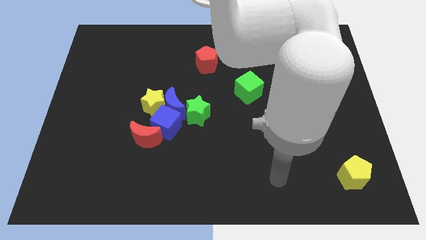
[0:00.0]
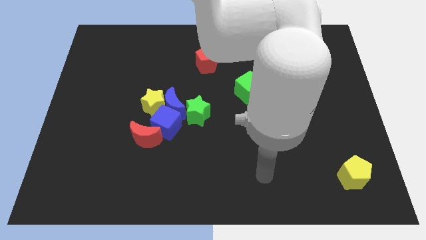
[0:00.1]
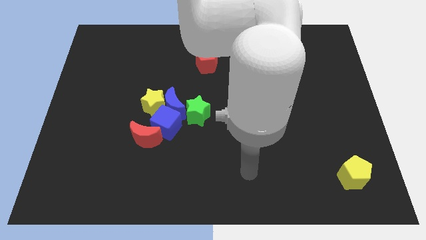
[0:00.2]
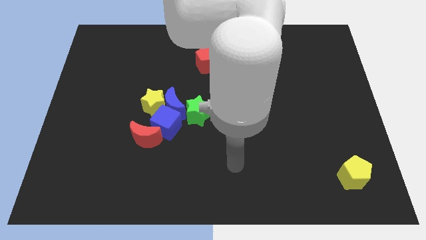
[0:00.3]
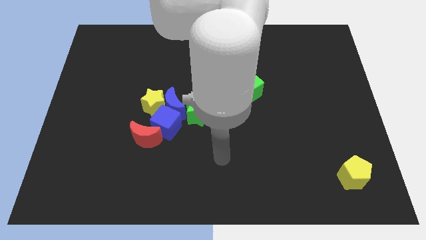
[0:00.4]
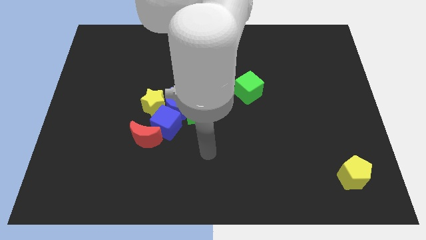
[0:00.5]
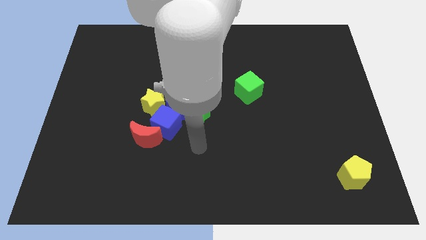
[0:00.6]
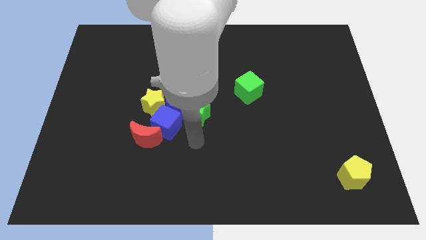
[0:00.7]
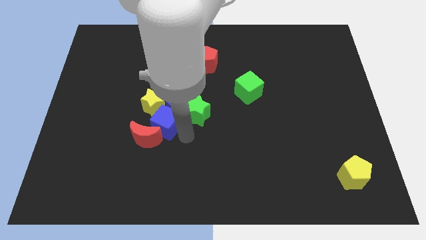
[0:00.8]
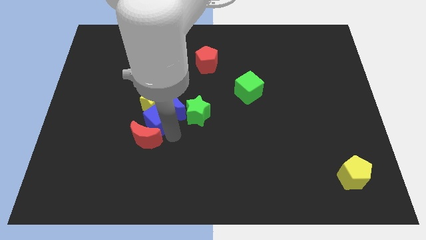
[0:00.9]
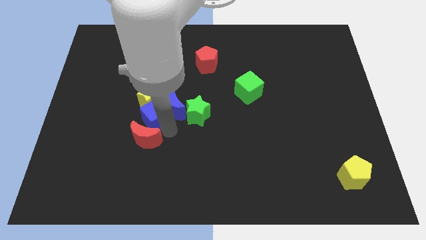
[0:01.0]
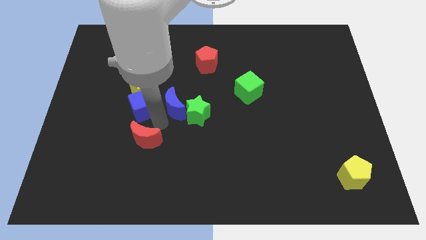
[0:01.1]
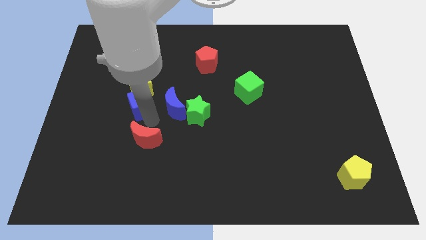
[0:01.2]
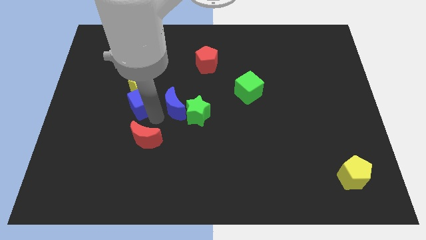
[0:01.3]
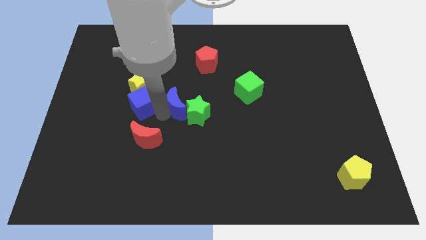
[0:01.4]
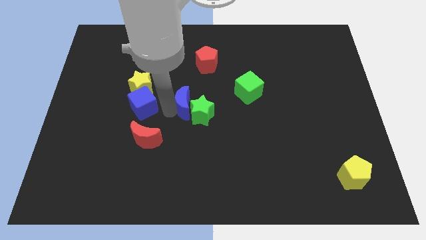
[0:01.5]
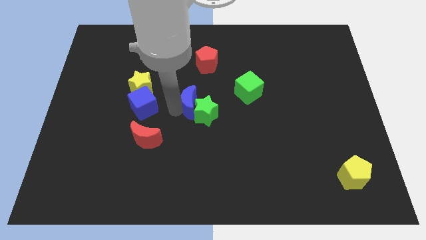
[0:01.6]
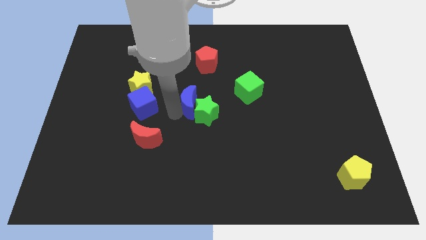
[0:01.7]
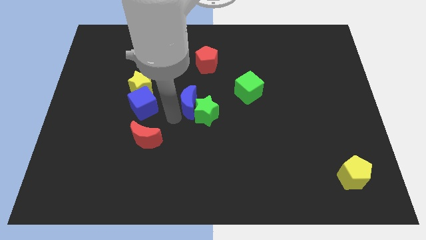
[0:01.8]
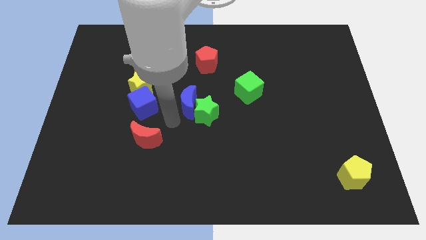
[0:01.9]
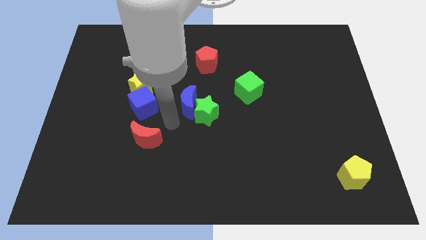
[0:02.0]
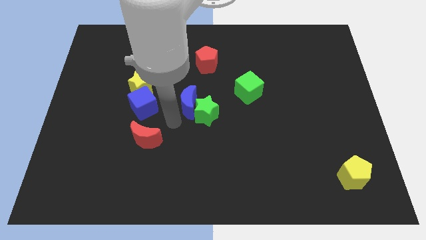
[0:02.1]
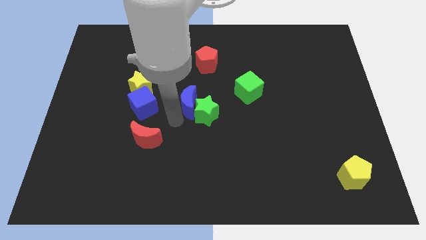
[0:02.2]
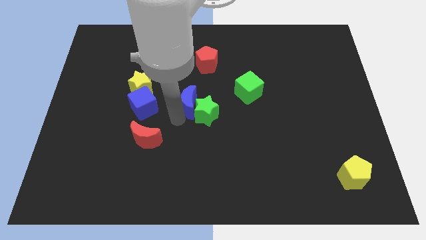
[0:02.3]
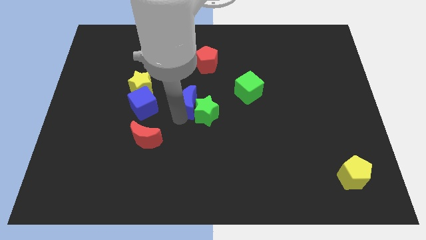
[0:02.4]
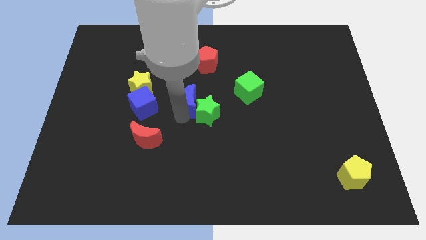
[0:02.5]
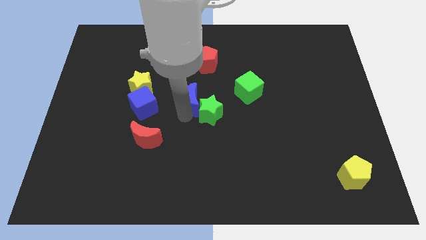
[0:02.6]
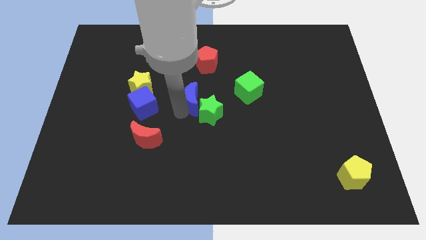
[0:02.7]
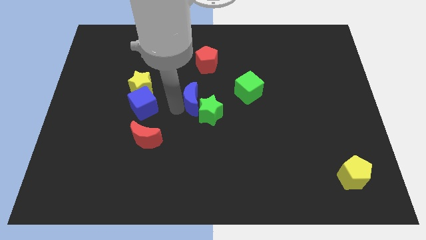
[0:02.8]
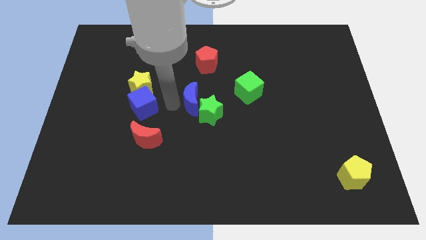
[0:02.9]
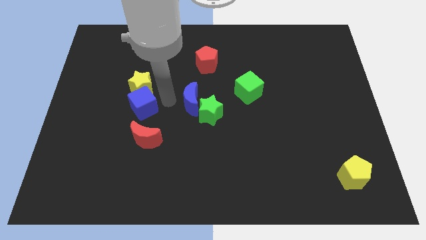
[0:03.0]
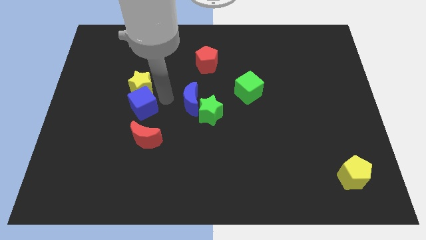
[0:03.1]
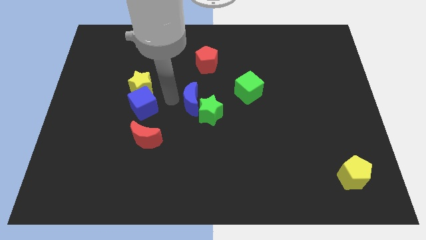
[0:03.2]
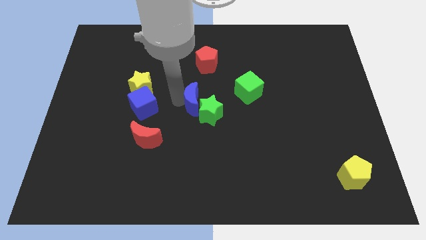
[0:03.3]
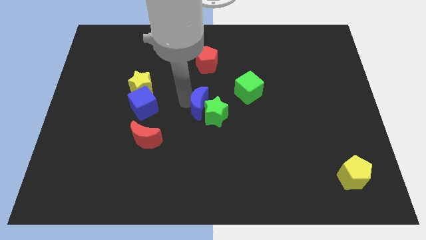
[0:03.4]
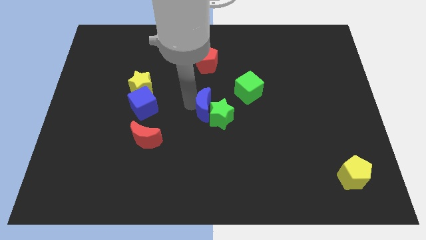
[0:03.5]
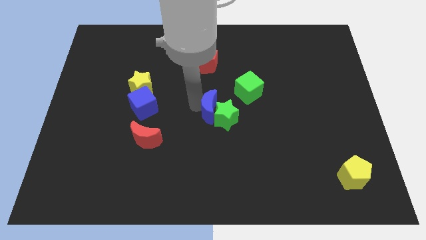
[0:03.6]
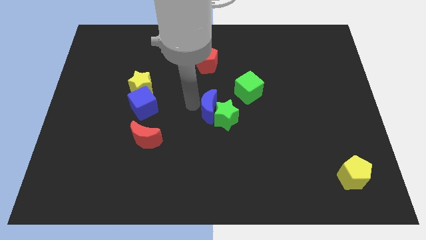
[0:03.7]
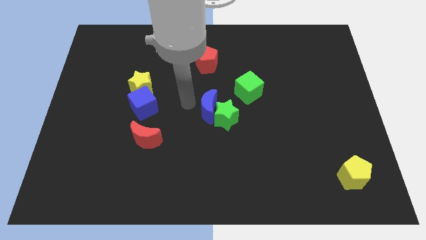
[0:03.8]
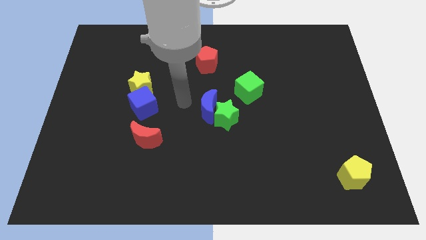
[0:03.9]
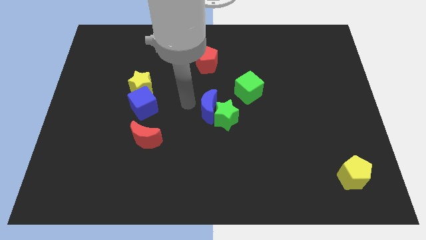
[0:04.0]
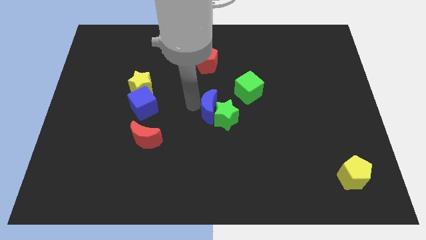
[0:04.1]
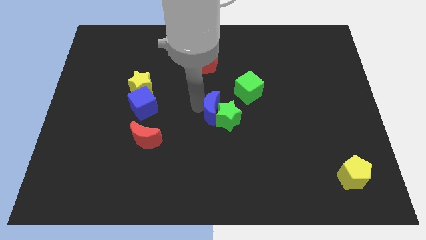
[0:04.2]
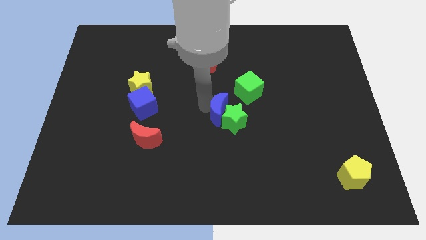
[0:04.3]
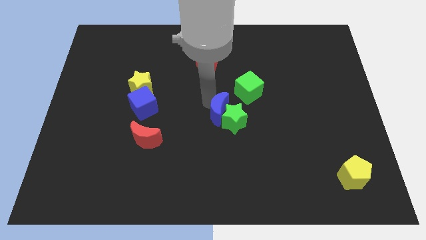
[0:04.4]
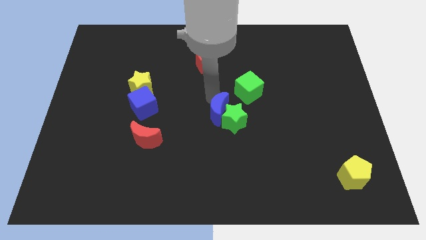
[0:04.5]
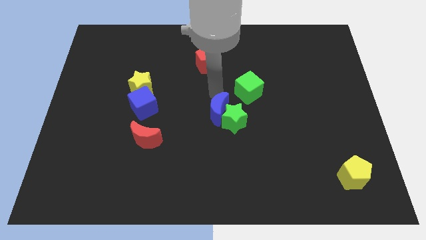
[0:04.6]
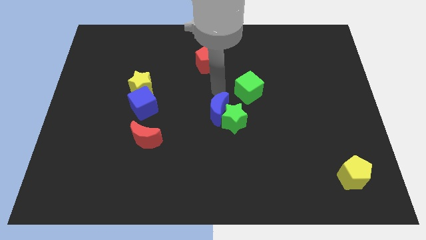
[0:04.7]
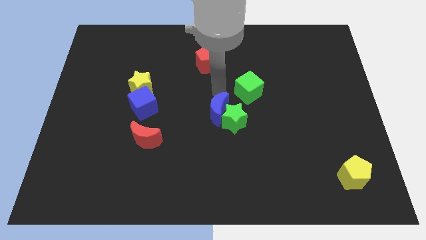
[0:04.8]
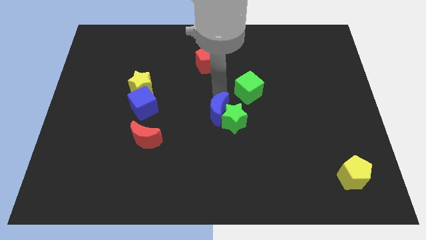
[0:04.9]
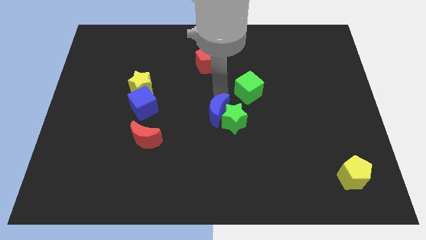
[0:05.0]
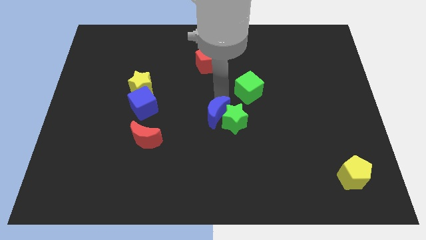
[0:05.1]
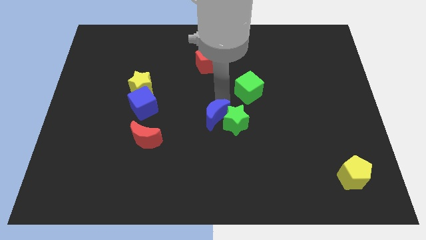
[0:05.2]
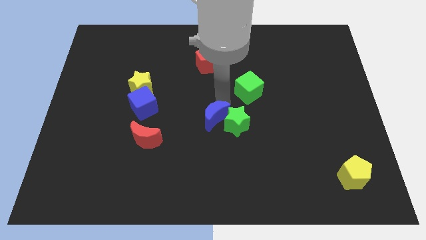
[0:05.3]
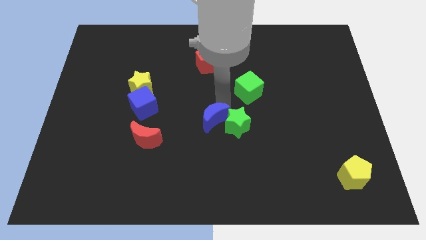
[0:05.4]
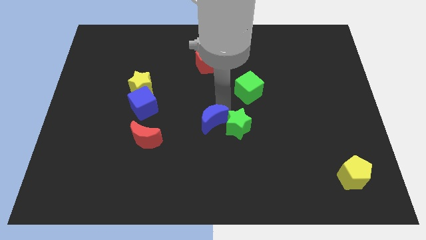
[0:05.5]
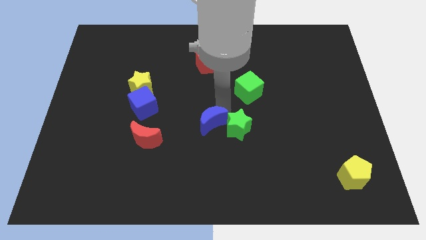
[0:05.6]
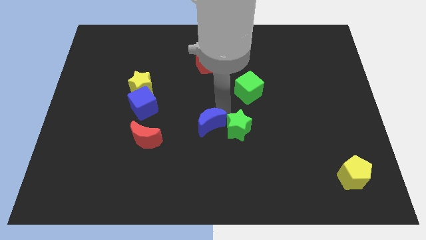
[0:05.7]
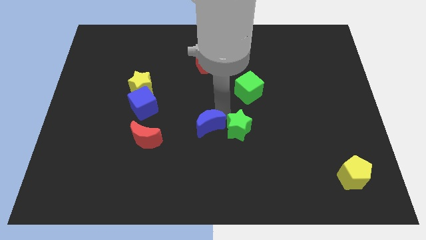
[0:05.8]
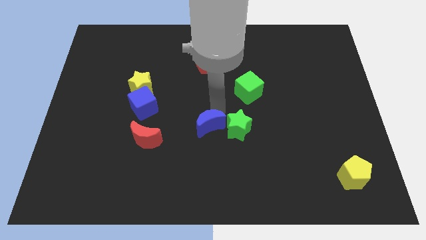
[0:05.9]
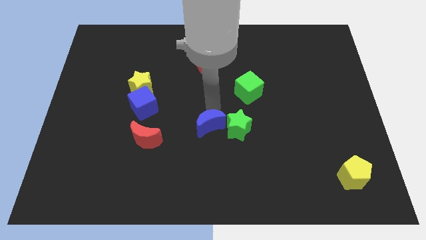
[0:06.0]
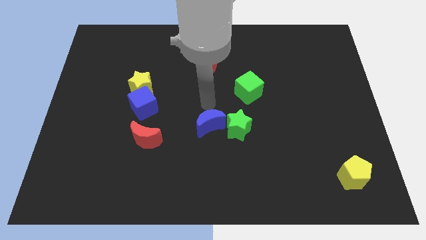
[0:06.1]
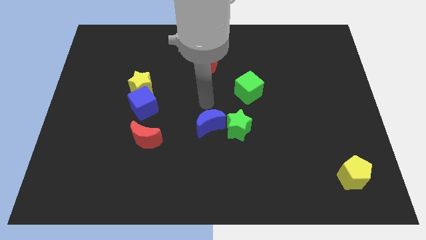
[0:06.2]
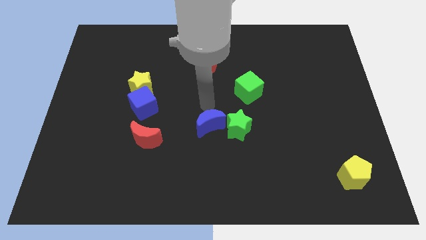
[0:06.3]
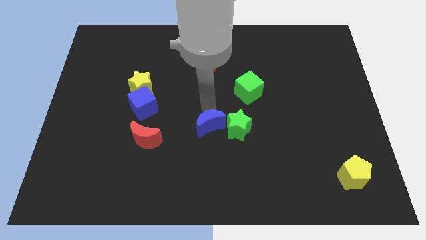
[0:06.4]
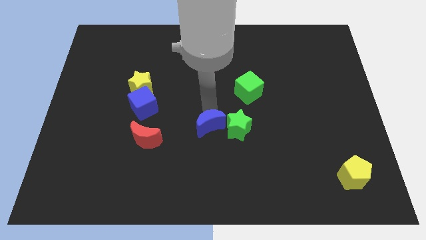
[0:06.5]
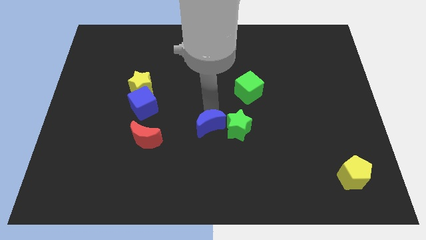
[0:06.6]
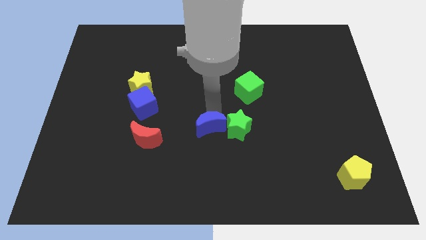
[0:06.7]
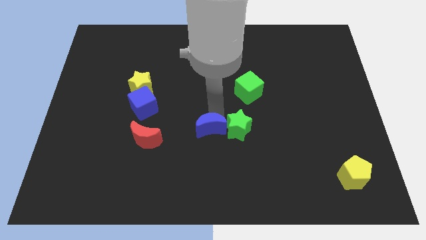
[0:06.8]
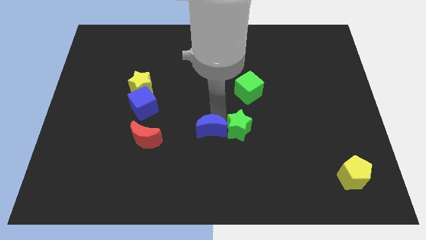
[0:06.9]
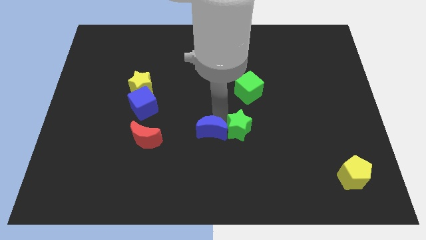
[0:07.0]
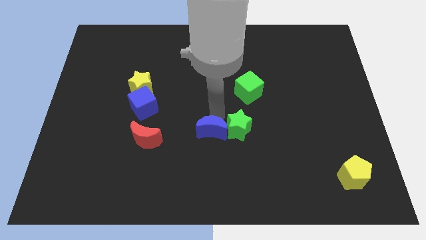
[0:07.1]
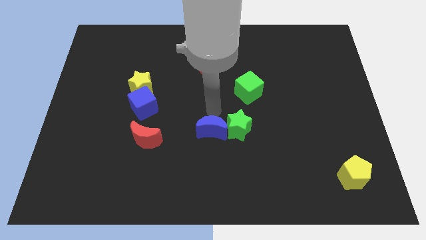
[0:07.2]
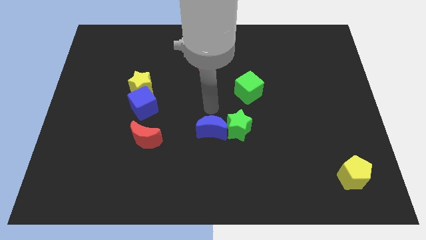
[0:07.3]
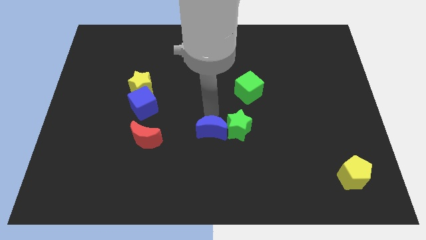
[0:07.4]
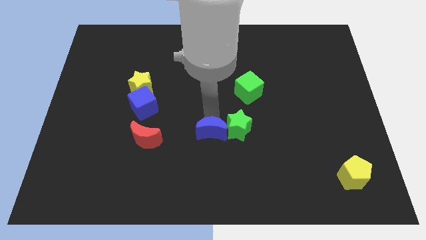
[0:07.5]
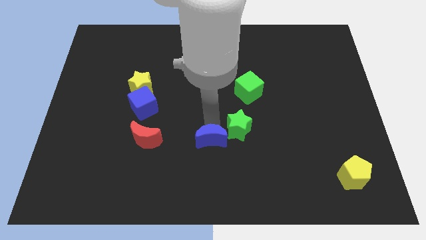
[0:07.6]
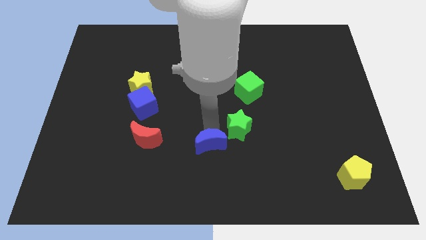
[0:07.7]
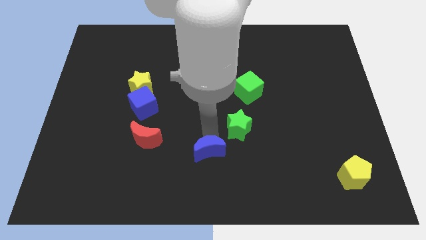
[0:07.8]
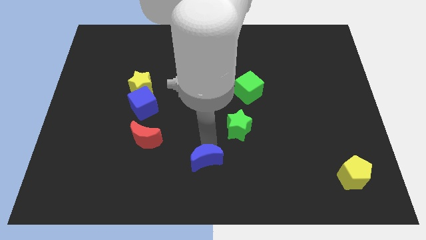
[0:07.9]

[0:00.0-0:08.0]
put the blue moon to the bottom
